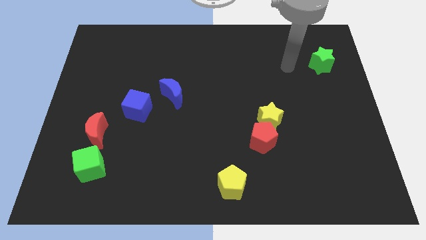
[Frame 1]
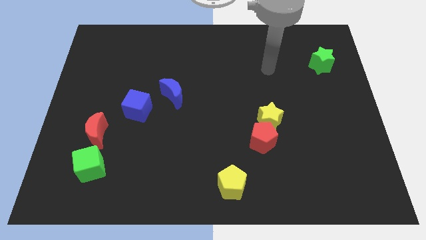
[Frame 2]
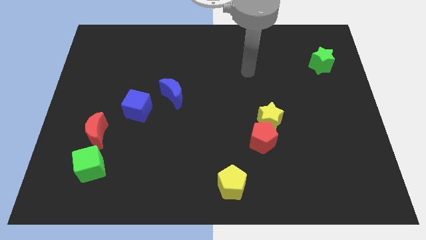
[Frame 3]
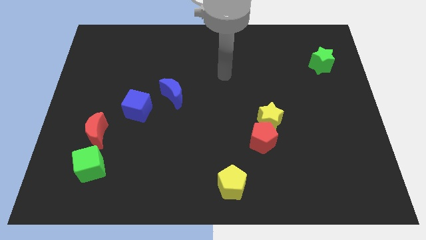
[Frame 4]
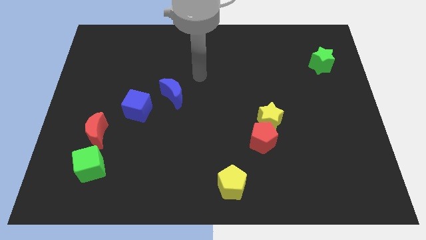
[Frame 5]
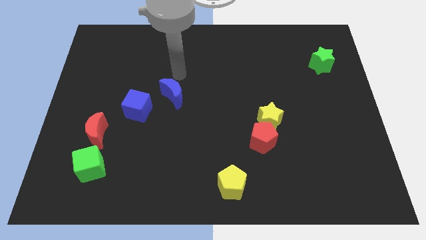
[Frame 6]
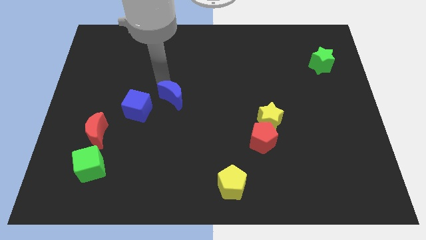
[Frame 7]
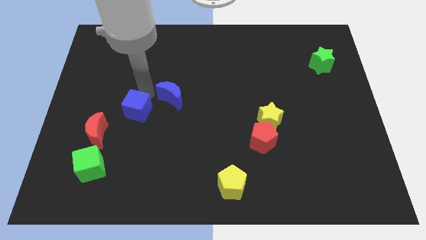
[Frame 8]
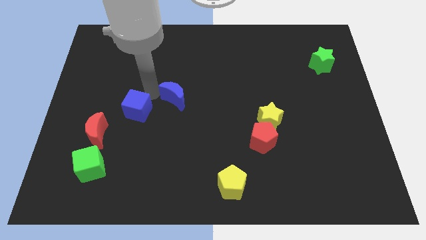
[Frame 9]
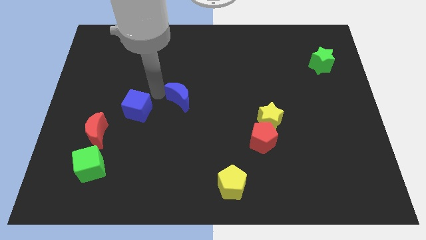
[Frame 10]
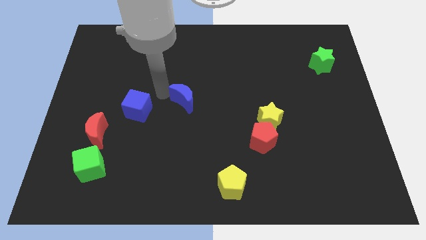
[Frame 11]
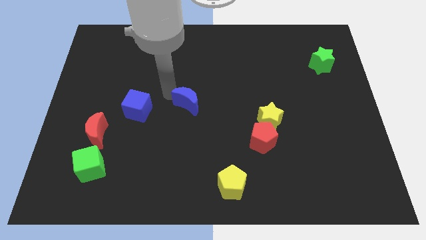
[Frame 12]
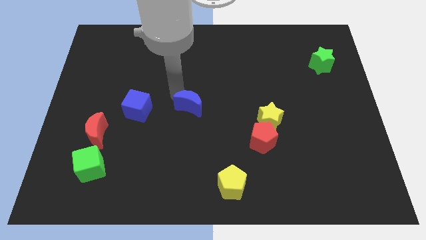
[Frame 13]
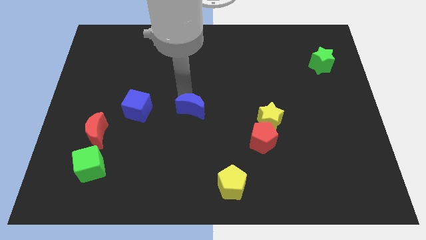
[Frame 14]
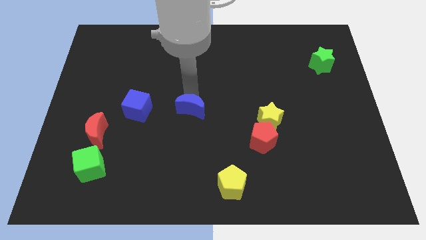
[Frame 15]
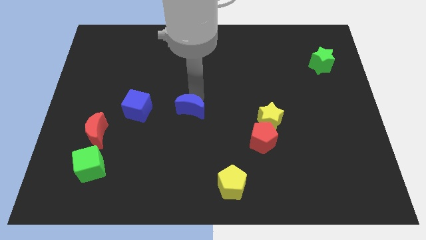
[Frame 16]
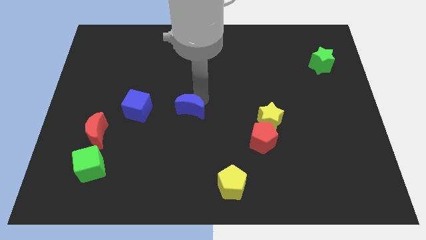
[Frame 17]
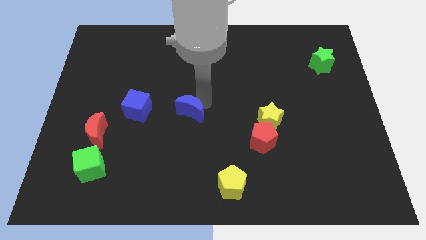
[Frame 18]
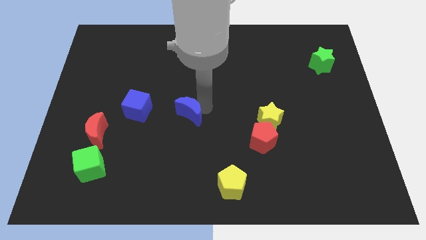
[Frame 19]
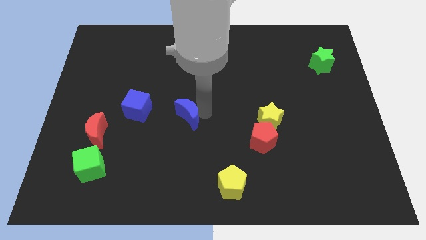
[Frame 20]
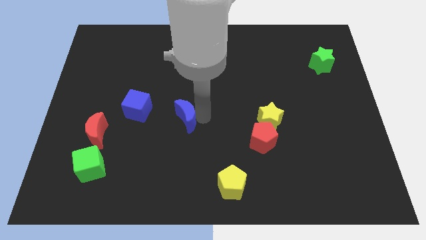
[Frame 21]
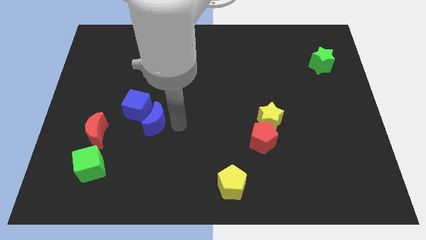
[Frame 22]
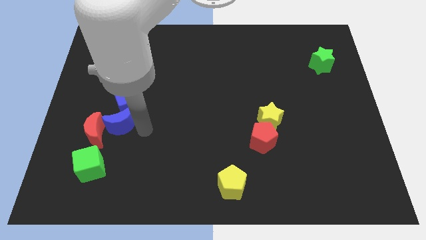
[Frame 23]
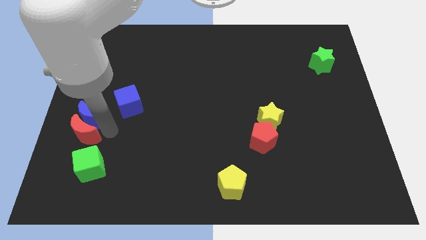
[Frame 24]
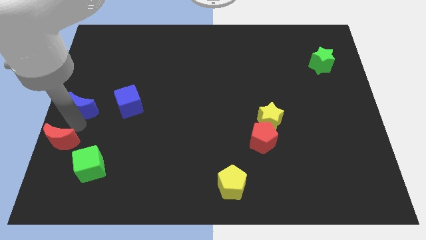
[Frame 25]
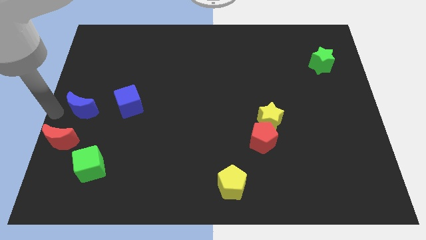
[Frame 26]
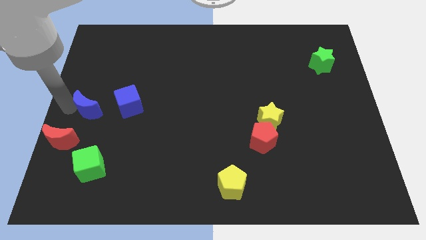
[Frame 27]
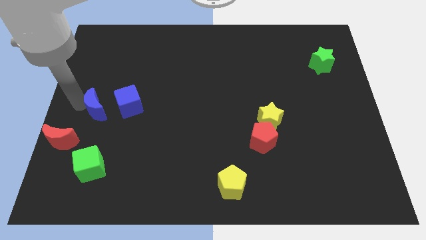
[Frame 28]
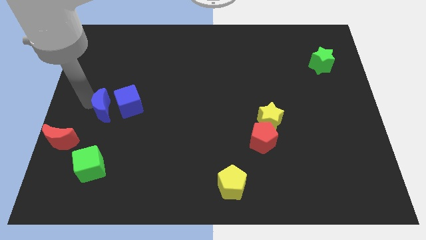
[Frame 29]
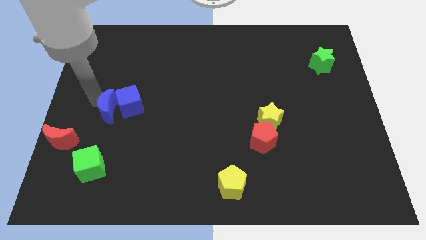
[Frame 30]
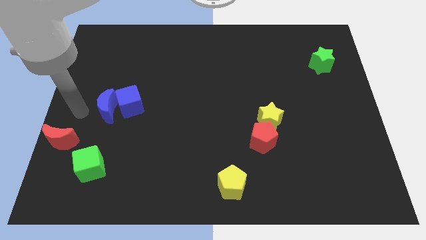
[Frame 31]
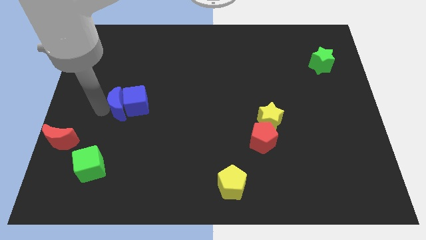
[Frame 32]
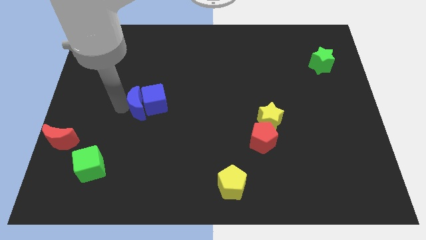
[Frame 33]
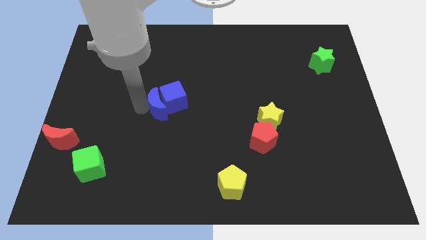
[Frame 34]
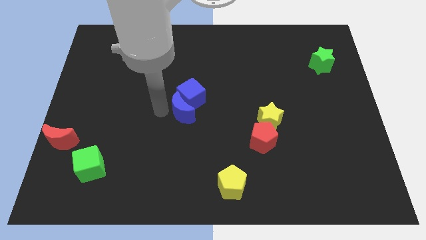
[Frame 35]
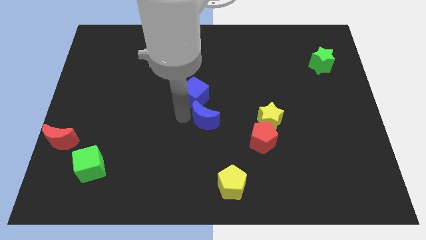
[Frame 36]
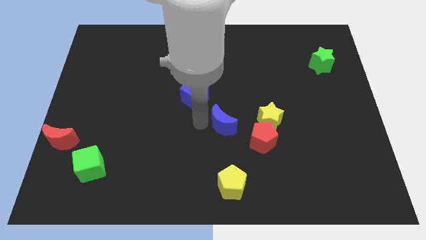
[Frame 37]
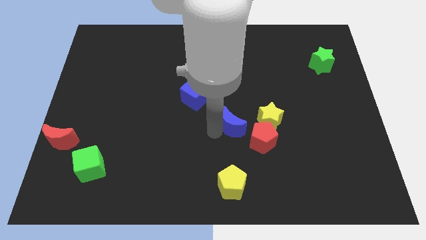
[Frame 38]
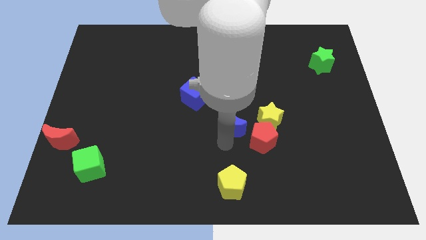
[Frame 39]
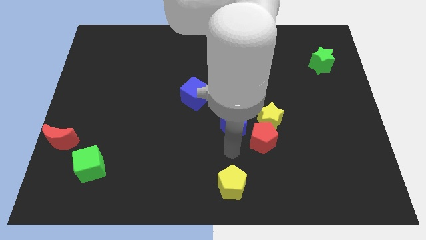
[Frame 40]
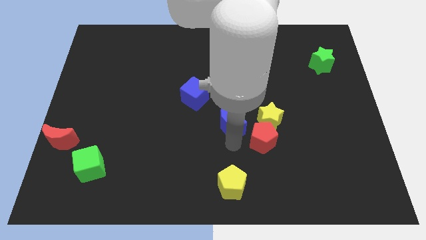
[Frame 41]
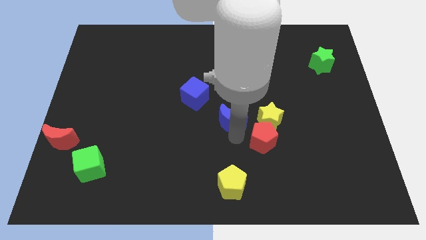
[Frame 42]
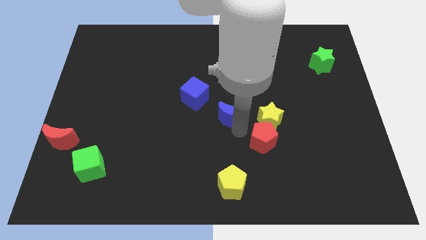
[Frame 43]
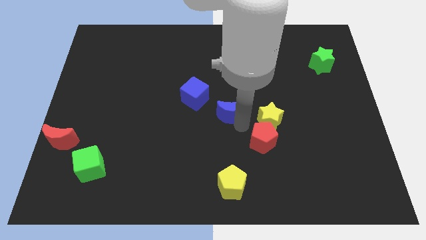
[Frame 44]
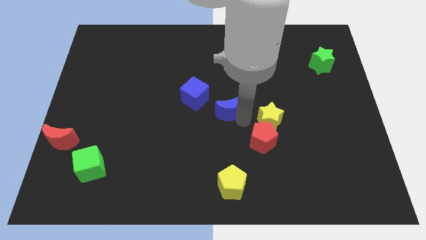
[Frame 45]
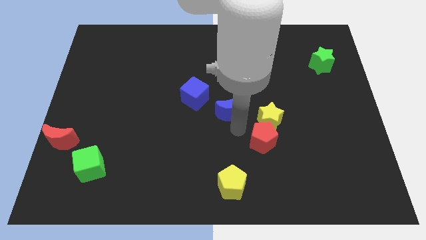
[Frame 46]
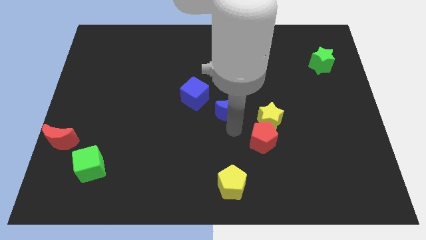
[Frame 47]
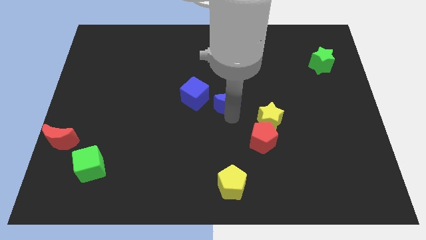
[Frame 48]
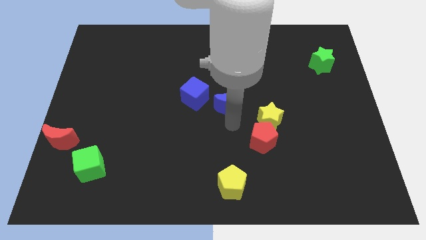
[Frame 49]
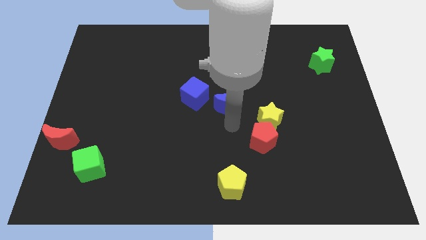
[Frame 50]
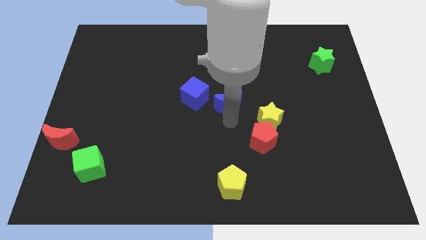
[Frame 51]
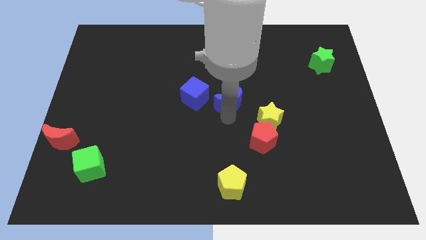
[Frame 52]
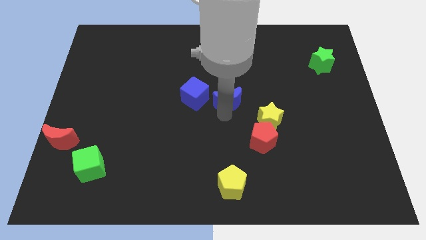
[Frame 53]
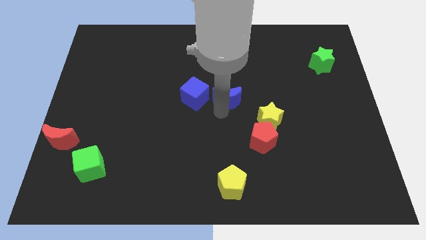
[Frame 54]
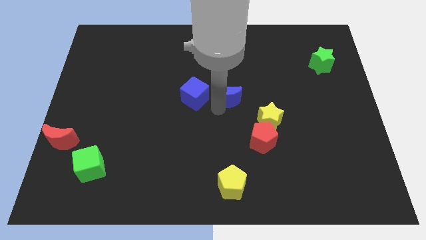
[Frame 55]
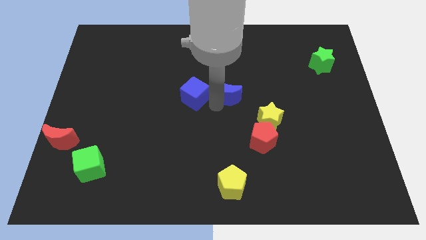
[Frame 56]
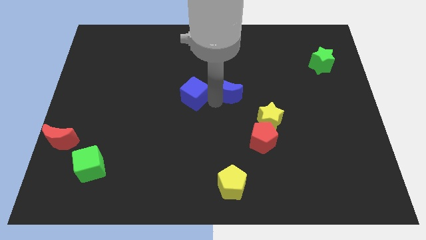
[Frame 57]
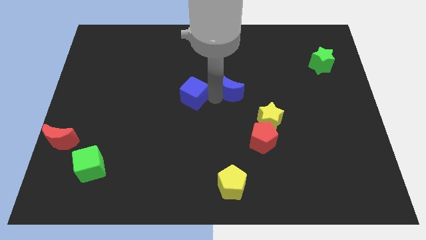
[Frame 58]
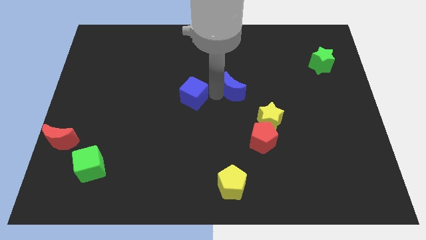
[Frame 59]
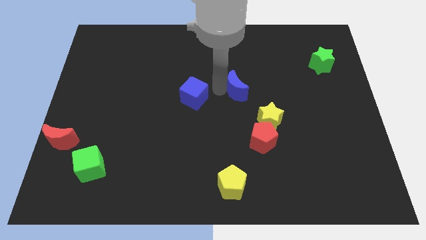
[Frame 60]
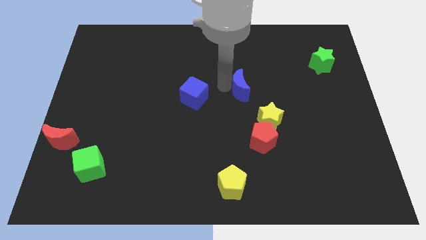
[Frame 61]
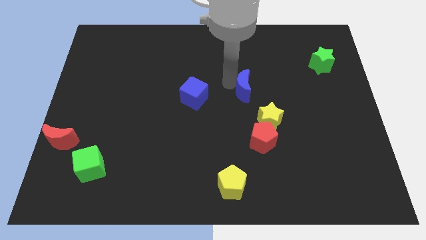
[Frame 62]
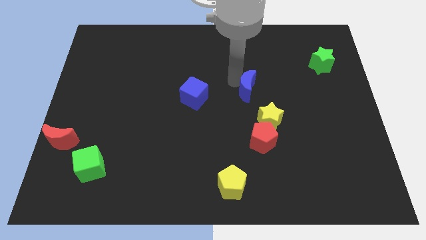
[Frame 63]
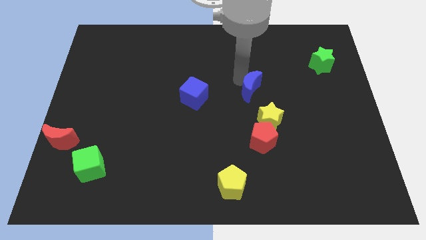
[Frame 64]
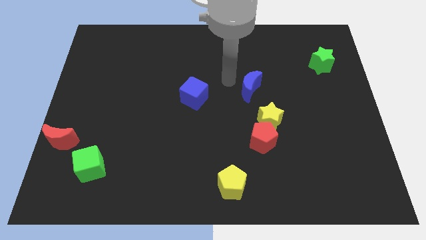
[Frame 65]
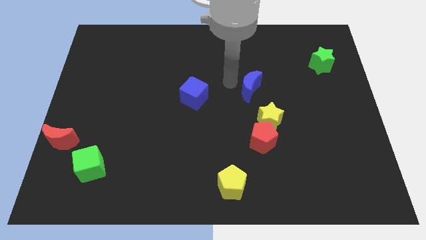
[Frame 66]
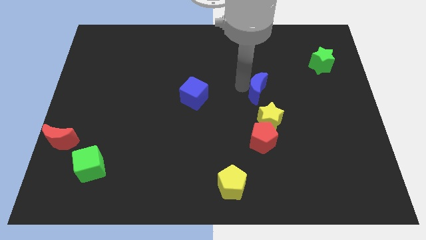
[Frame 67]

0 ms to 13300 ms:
push the blue moon to the right

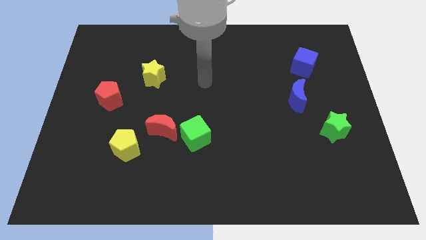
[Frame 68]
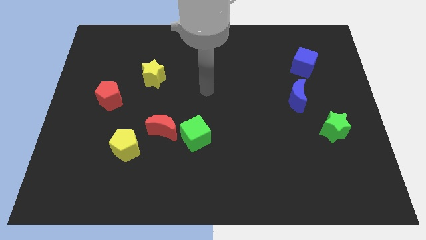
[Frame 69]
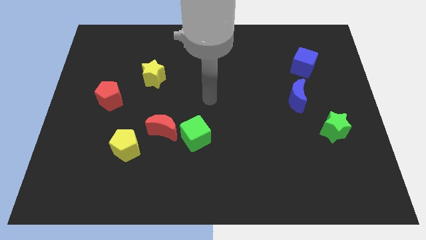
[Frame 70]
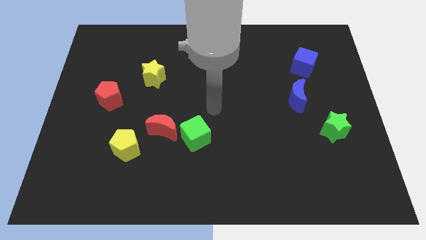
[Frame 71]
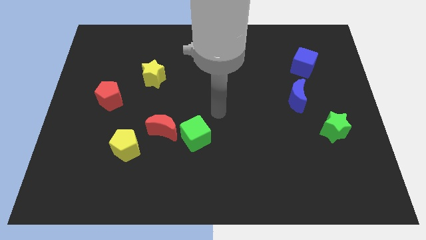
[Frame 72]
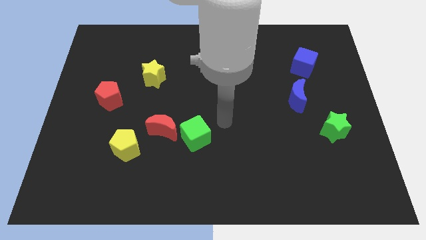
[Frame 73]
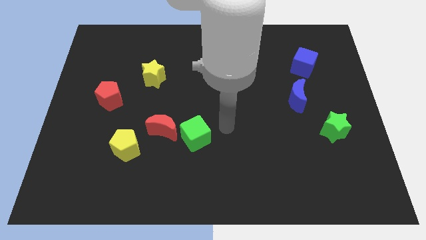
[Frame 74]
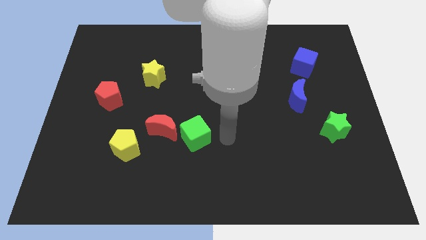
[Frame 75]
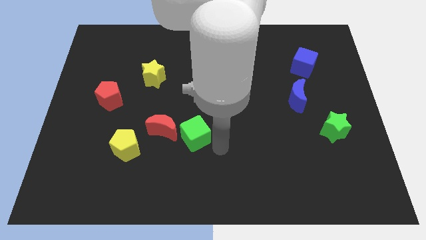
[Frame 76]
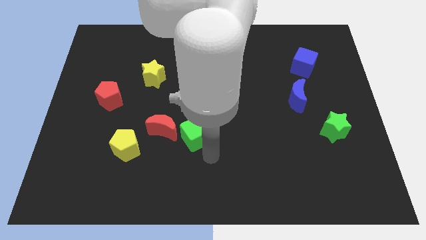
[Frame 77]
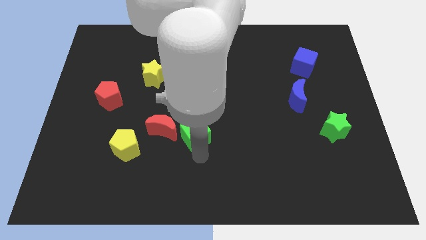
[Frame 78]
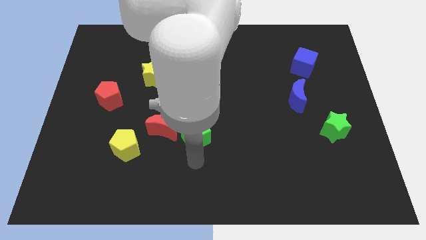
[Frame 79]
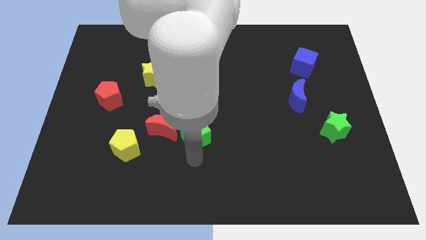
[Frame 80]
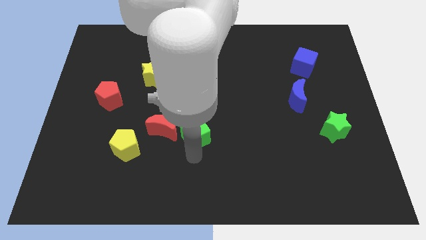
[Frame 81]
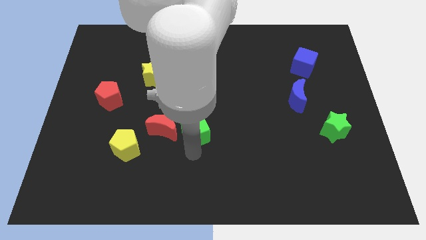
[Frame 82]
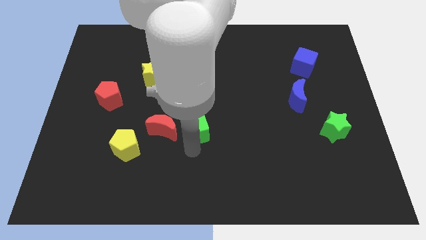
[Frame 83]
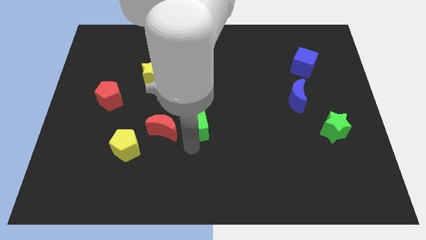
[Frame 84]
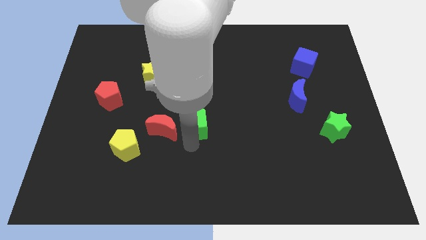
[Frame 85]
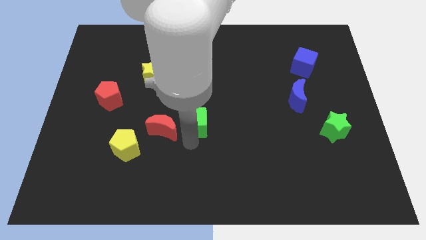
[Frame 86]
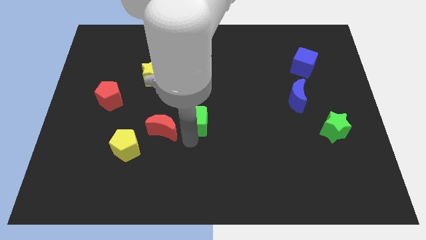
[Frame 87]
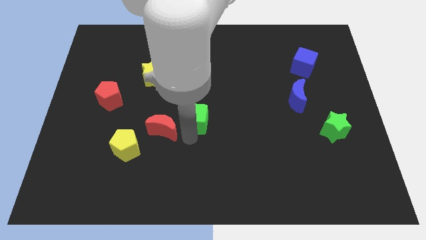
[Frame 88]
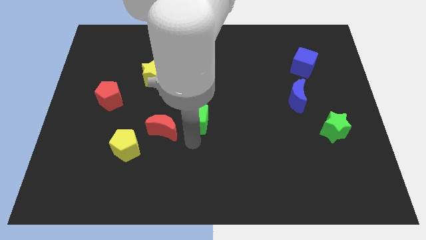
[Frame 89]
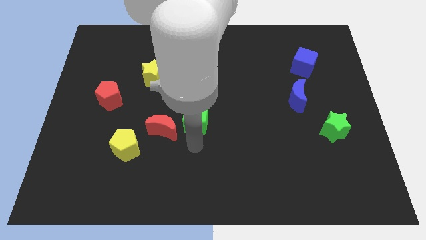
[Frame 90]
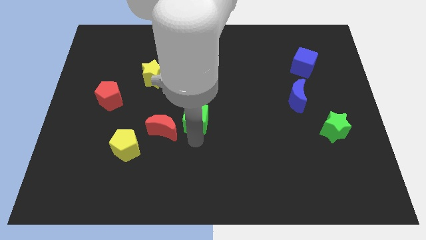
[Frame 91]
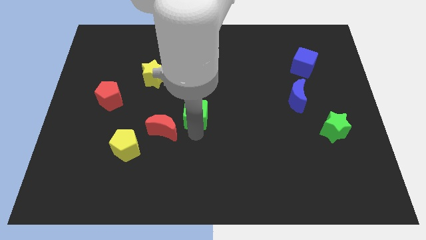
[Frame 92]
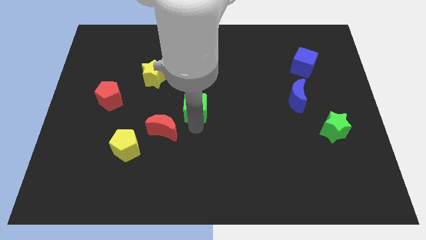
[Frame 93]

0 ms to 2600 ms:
slightly move the green cube up
